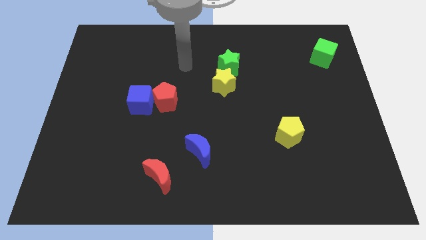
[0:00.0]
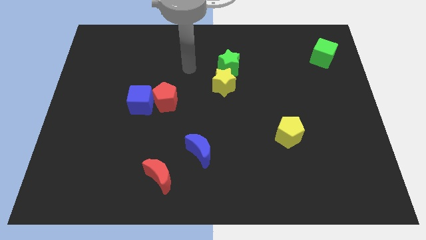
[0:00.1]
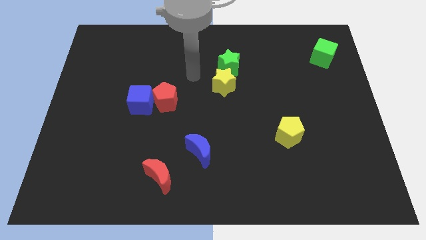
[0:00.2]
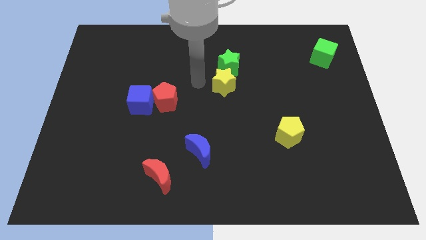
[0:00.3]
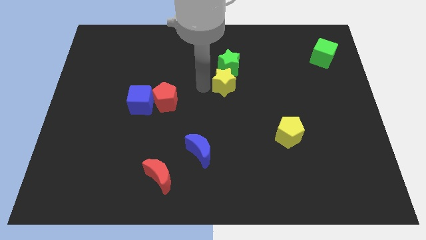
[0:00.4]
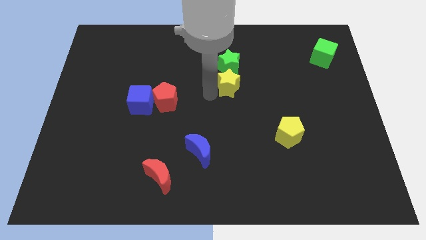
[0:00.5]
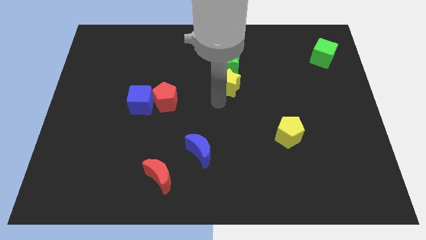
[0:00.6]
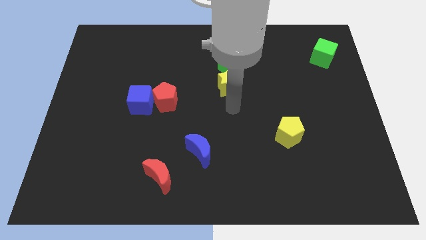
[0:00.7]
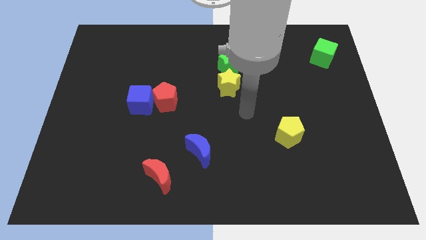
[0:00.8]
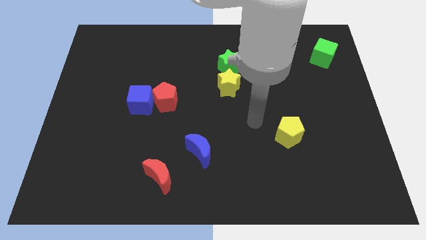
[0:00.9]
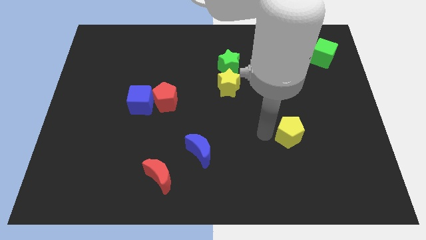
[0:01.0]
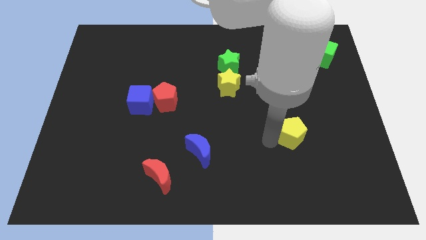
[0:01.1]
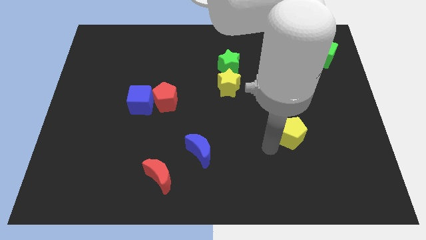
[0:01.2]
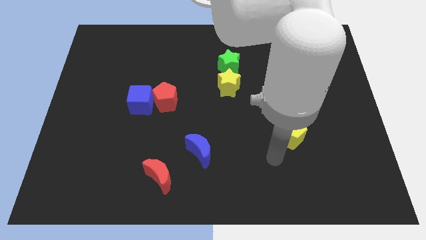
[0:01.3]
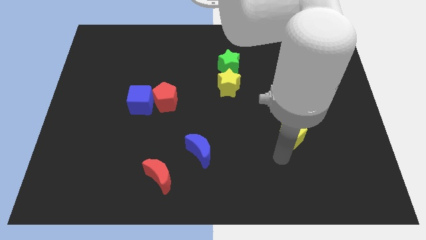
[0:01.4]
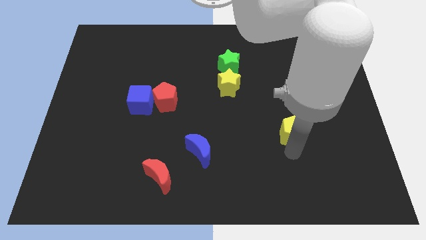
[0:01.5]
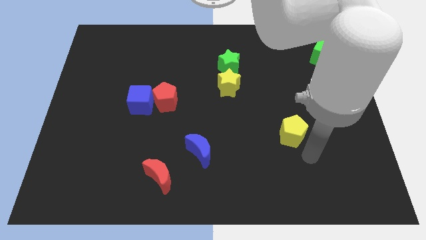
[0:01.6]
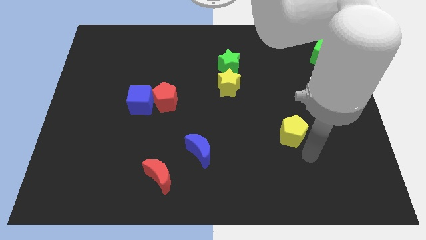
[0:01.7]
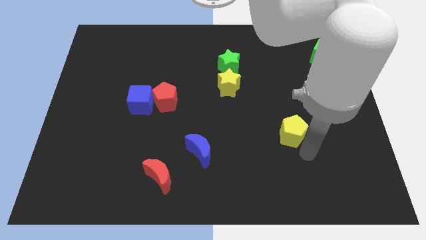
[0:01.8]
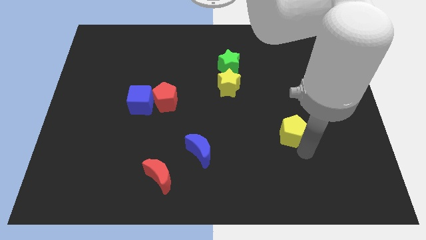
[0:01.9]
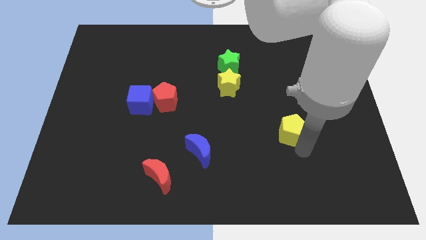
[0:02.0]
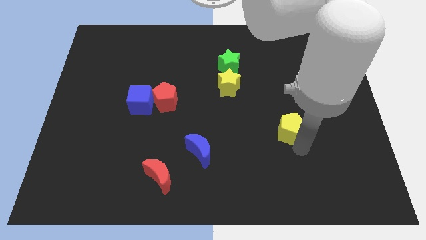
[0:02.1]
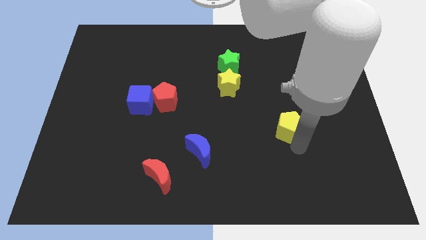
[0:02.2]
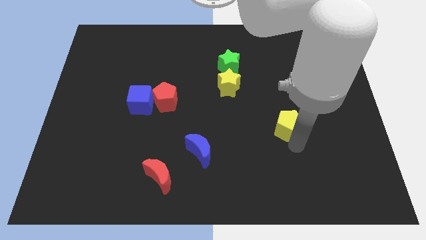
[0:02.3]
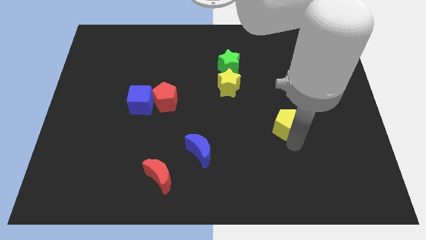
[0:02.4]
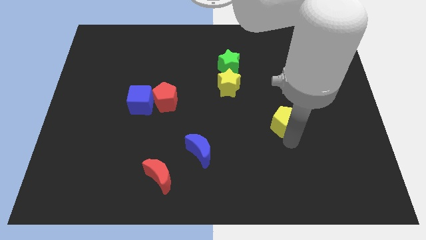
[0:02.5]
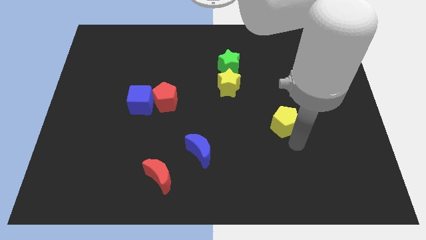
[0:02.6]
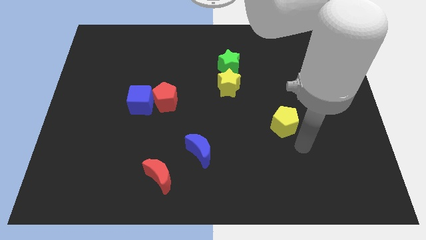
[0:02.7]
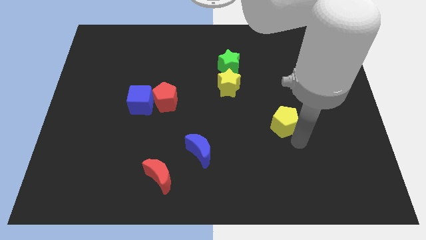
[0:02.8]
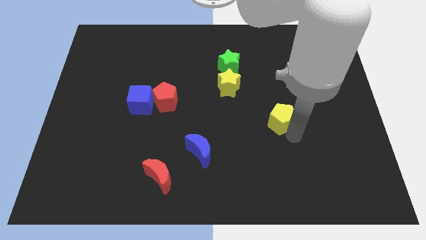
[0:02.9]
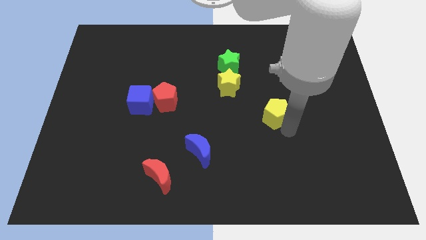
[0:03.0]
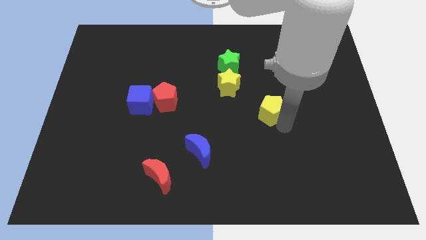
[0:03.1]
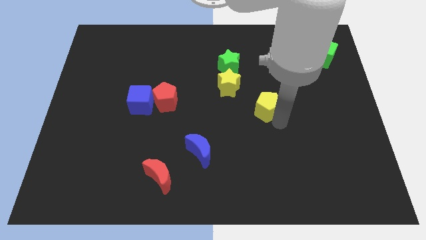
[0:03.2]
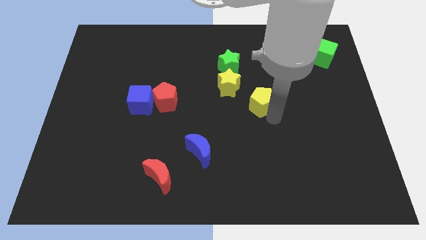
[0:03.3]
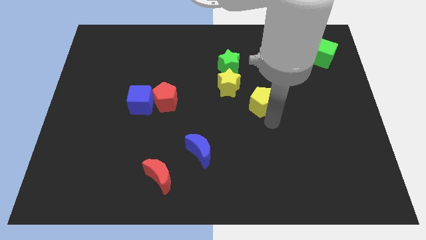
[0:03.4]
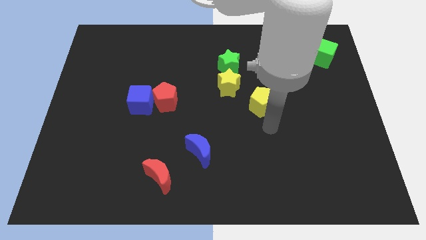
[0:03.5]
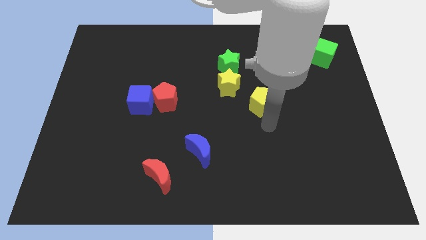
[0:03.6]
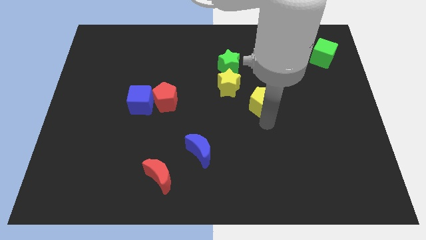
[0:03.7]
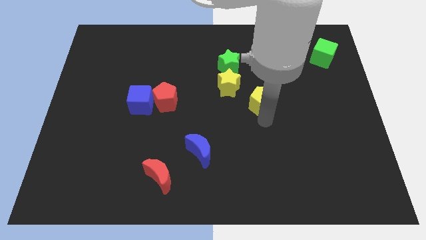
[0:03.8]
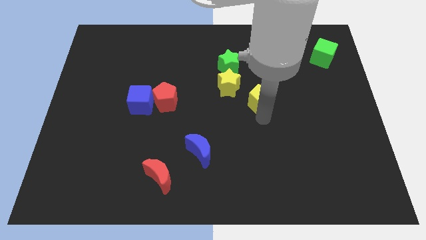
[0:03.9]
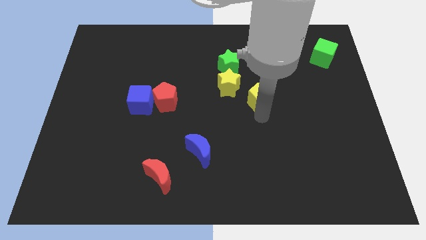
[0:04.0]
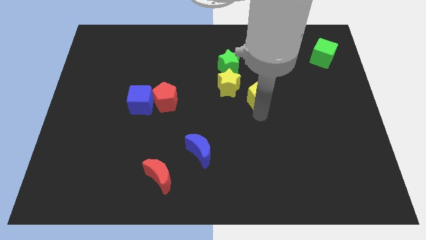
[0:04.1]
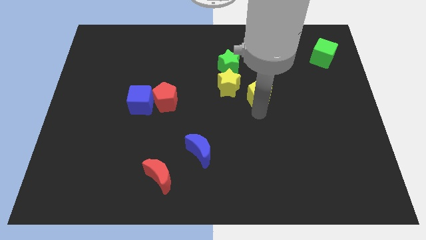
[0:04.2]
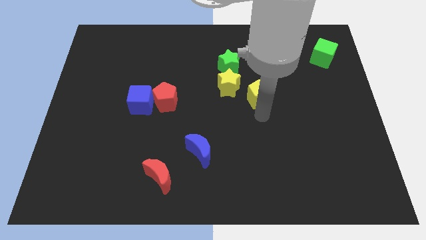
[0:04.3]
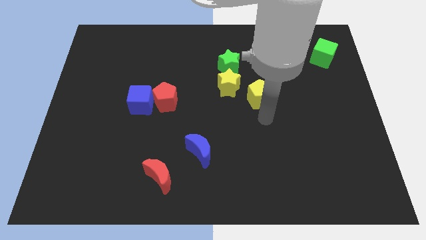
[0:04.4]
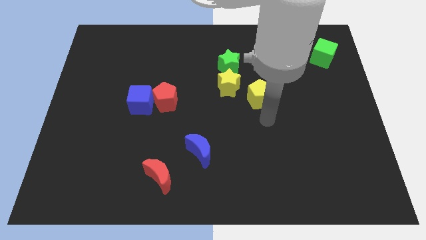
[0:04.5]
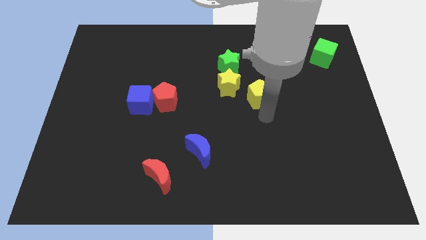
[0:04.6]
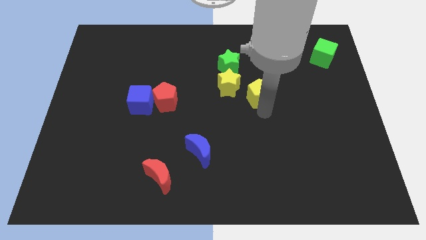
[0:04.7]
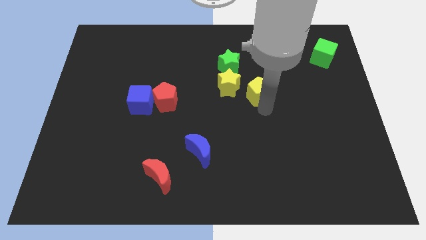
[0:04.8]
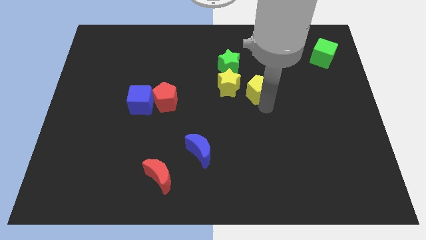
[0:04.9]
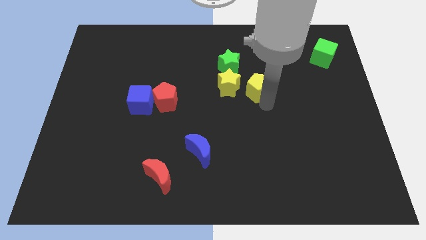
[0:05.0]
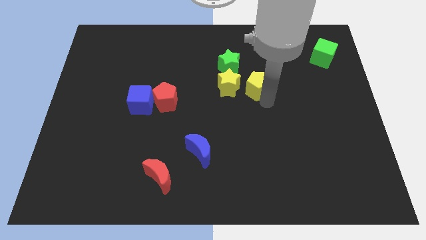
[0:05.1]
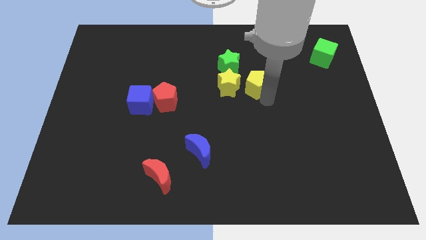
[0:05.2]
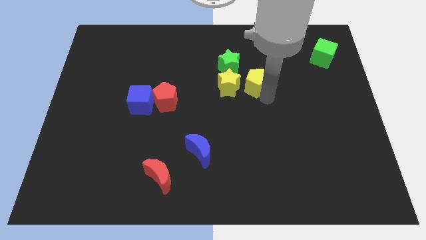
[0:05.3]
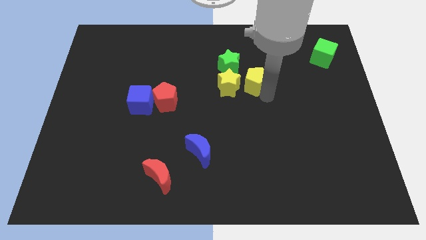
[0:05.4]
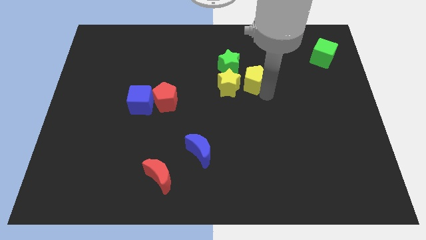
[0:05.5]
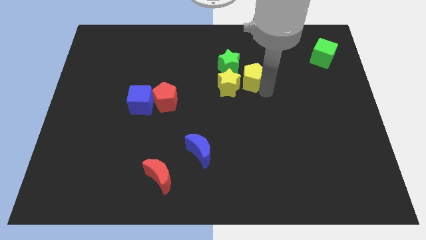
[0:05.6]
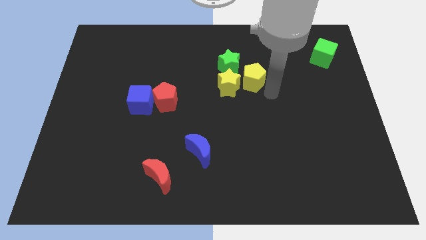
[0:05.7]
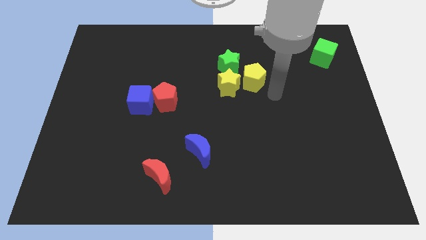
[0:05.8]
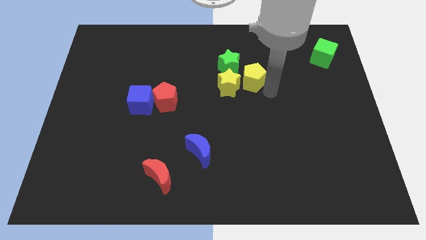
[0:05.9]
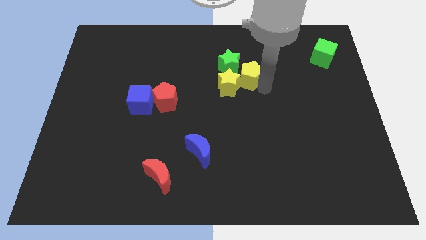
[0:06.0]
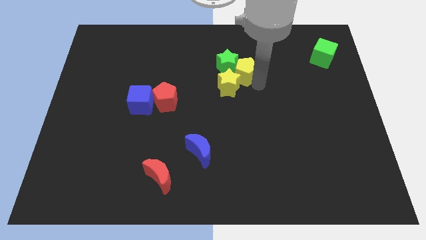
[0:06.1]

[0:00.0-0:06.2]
put the yellow pentagon next to the green star

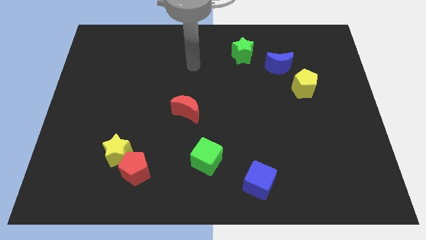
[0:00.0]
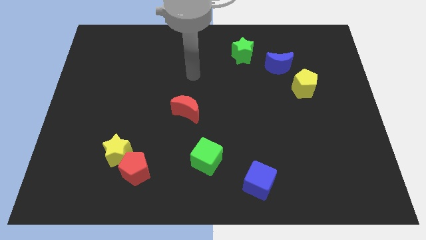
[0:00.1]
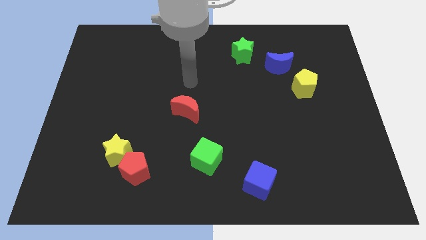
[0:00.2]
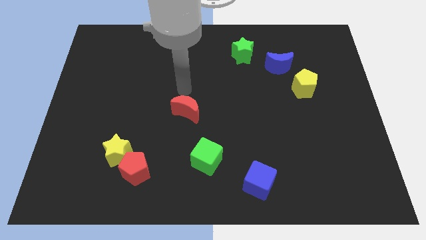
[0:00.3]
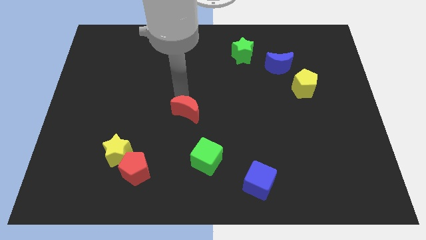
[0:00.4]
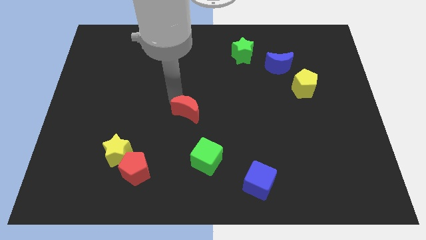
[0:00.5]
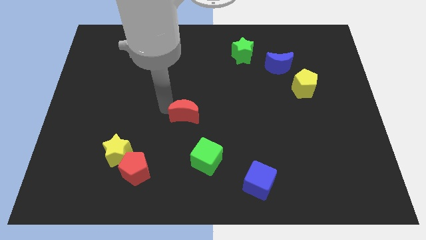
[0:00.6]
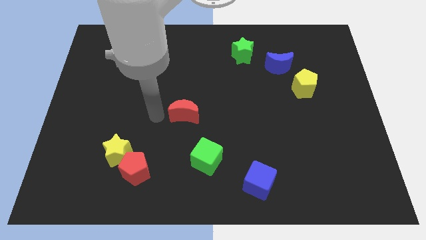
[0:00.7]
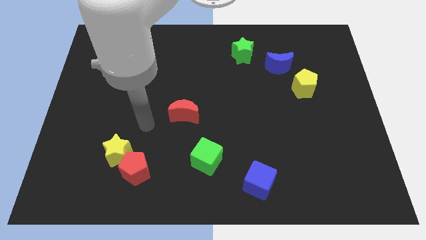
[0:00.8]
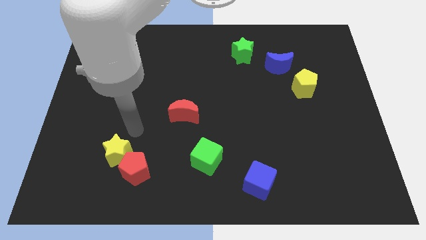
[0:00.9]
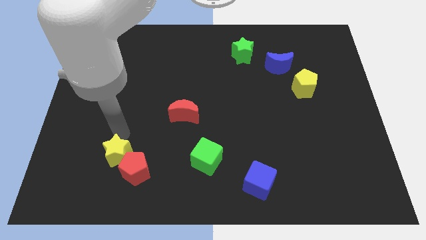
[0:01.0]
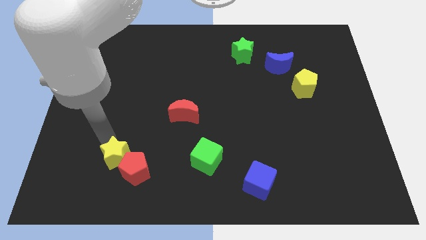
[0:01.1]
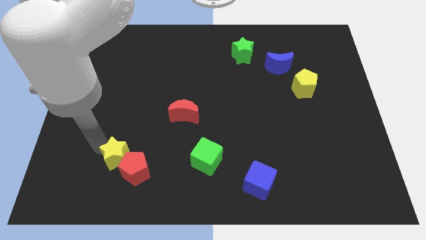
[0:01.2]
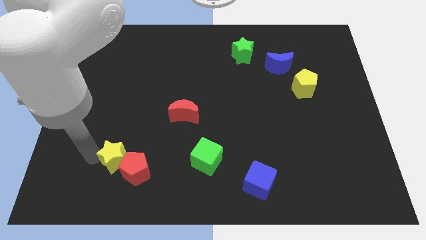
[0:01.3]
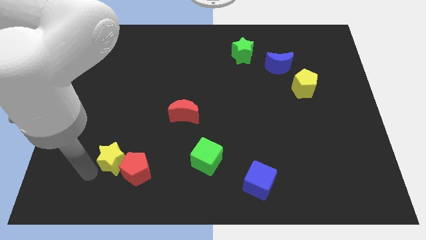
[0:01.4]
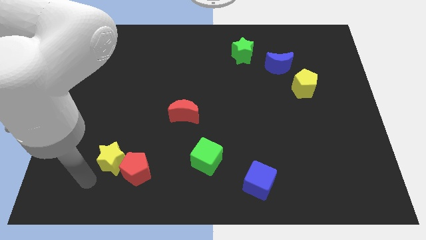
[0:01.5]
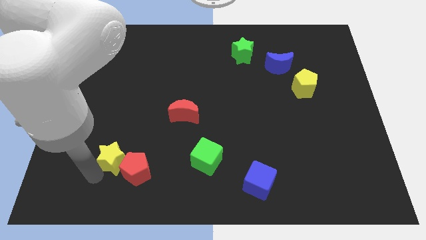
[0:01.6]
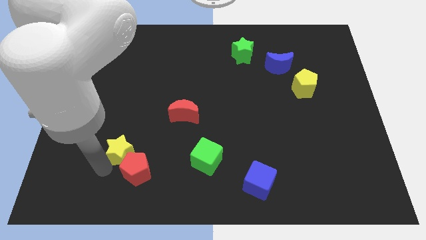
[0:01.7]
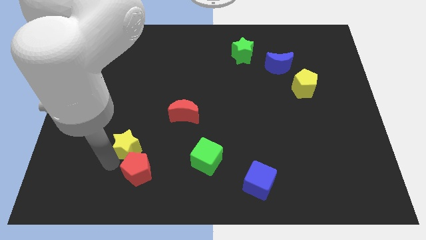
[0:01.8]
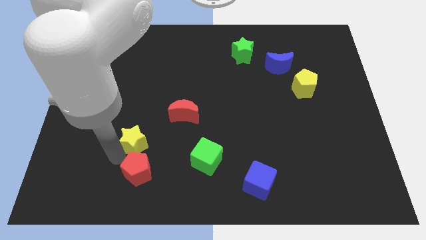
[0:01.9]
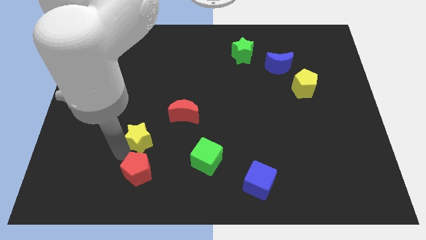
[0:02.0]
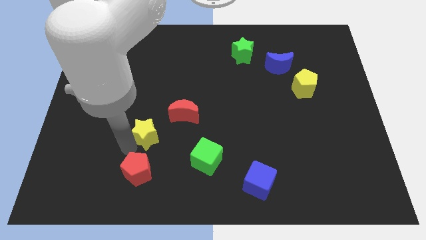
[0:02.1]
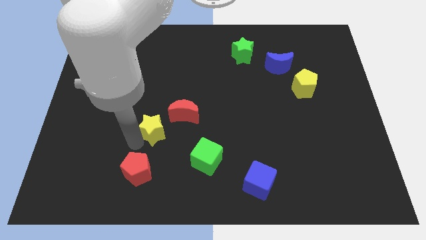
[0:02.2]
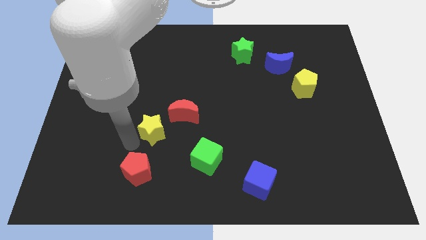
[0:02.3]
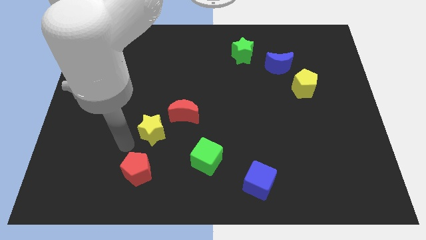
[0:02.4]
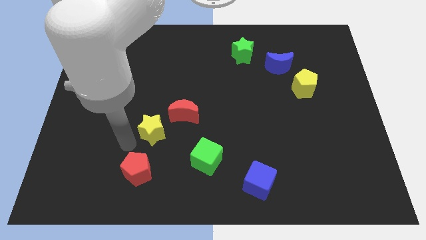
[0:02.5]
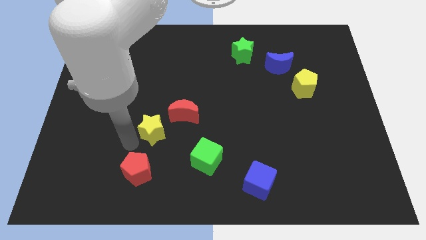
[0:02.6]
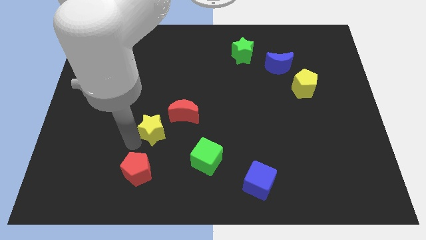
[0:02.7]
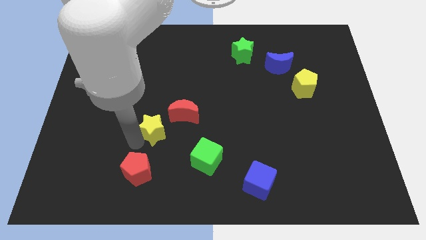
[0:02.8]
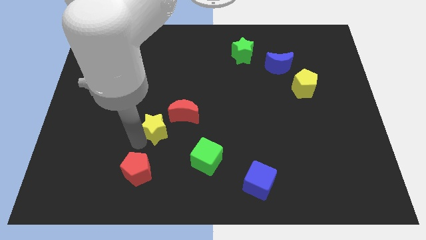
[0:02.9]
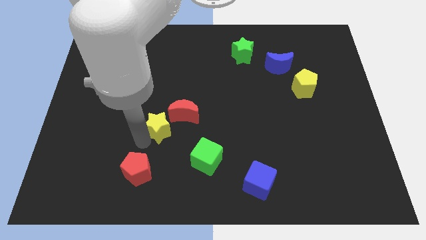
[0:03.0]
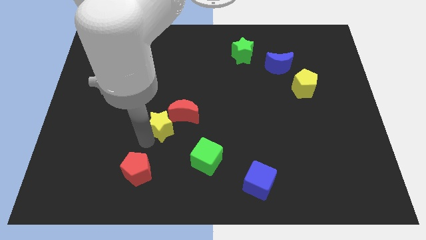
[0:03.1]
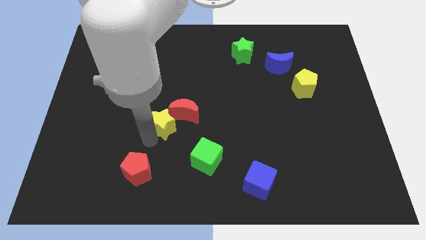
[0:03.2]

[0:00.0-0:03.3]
slide the yellow star next to the red moon
